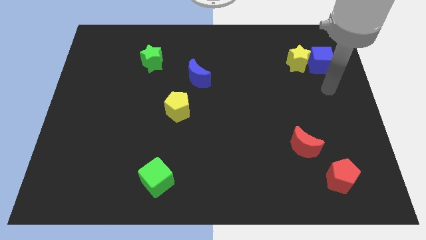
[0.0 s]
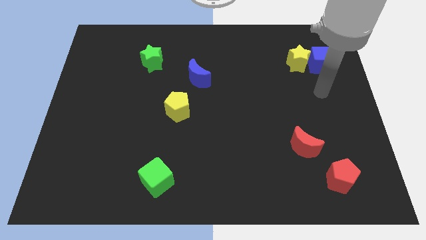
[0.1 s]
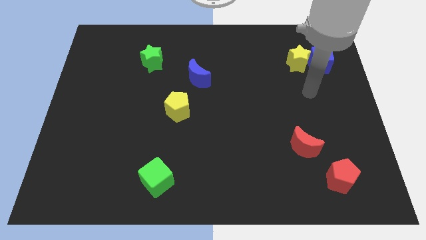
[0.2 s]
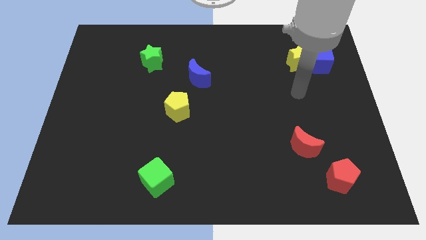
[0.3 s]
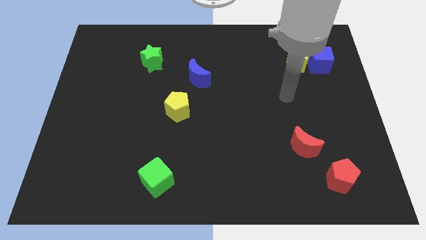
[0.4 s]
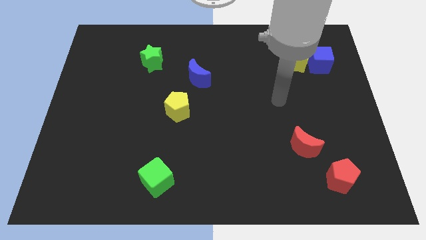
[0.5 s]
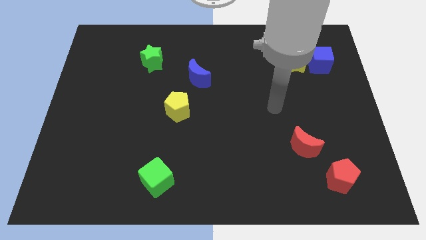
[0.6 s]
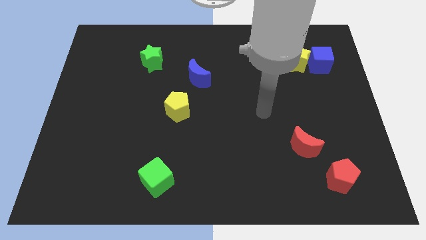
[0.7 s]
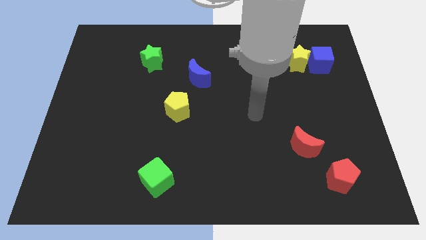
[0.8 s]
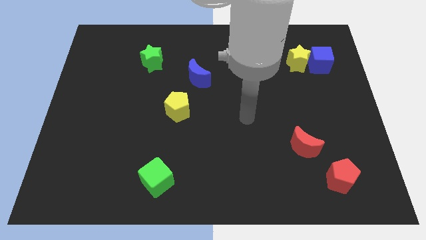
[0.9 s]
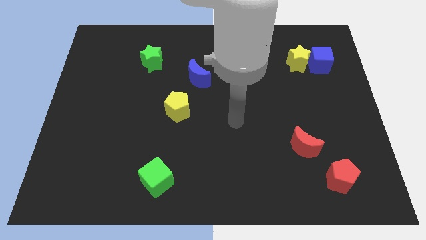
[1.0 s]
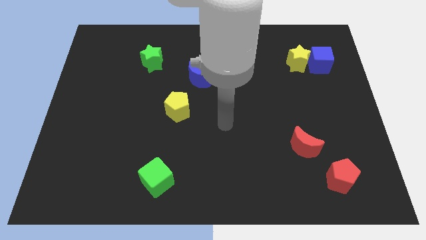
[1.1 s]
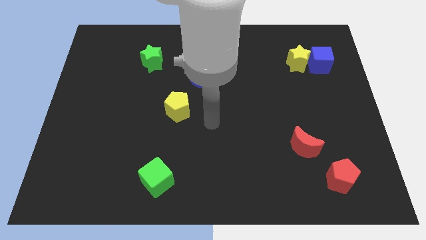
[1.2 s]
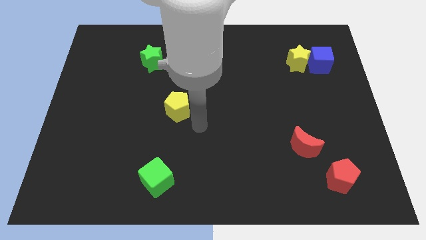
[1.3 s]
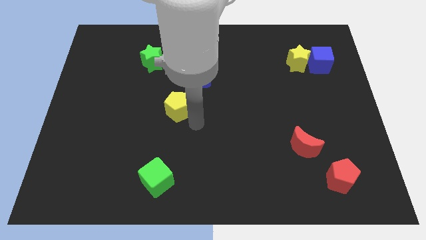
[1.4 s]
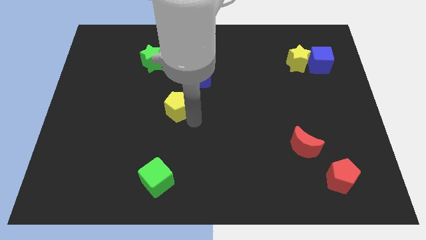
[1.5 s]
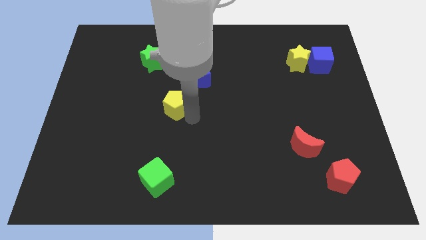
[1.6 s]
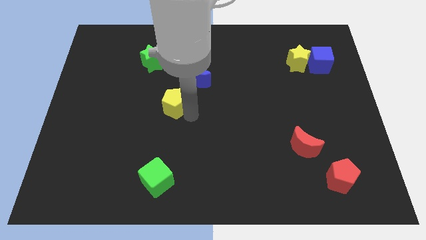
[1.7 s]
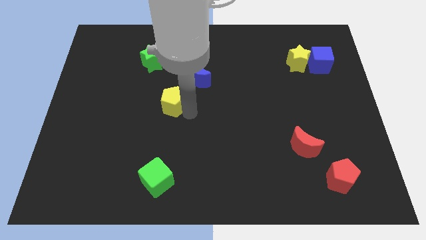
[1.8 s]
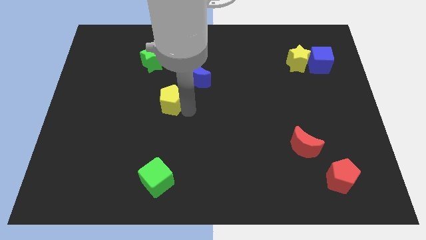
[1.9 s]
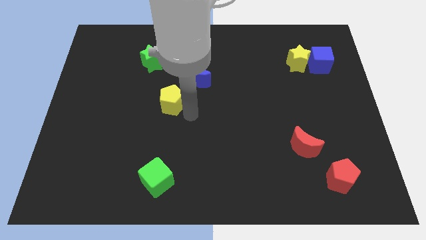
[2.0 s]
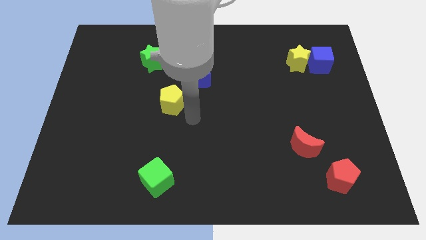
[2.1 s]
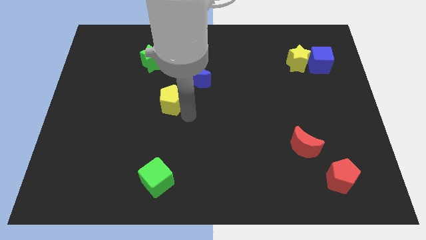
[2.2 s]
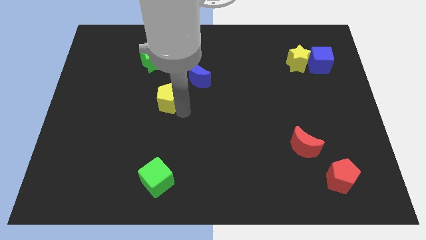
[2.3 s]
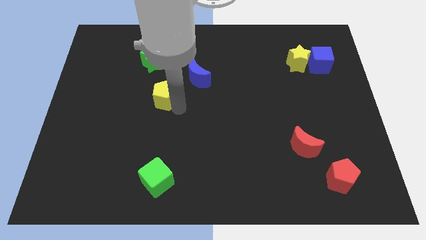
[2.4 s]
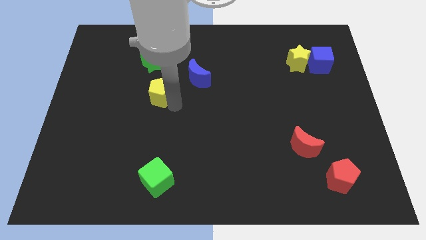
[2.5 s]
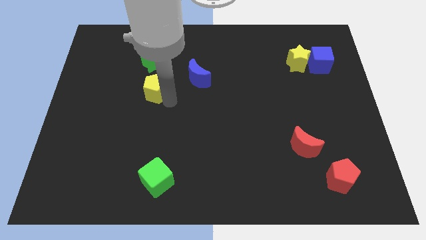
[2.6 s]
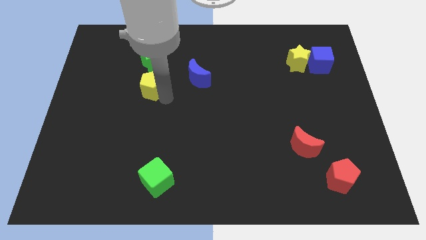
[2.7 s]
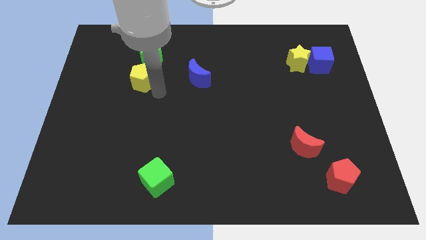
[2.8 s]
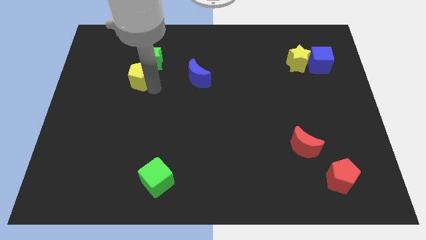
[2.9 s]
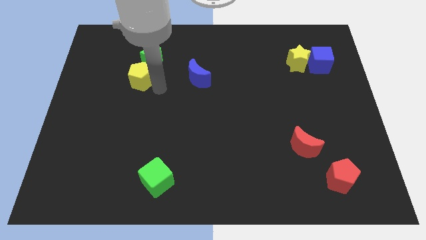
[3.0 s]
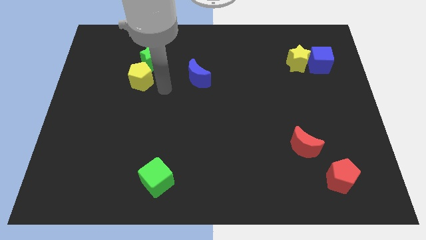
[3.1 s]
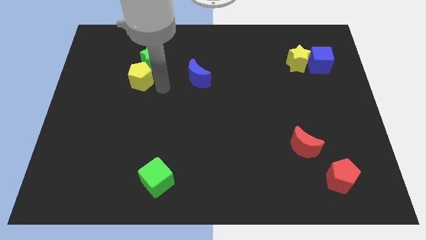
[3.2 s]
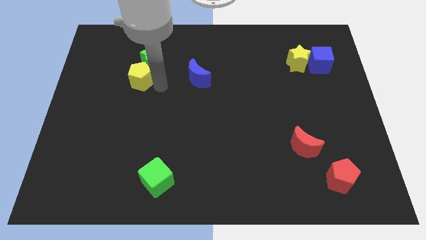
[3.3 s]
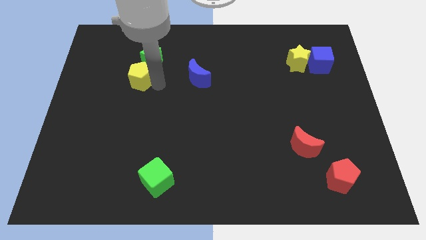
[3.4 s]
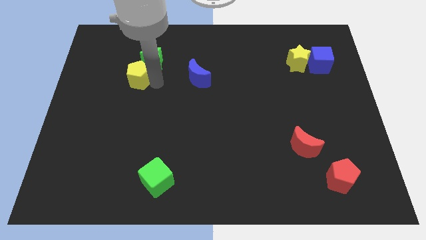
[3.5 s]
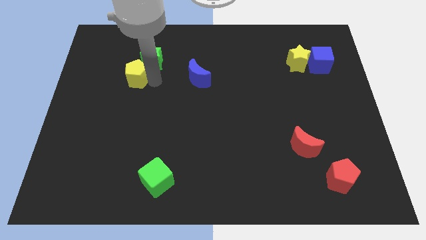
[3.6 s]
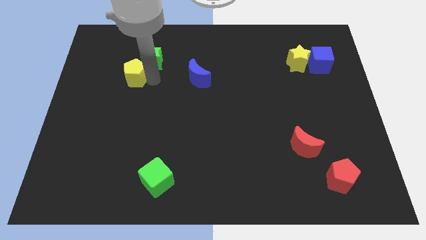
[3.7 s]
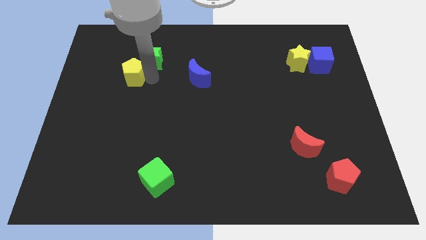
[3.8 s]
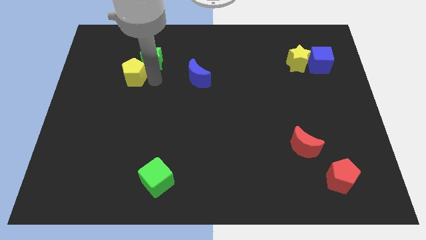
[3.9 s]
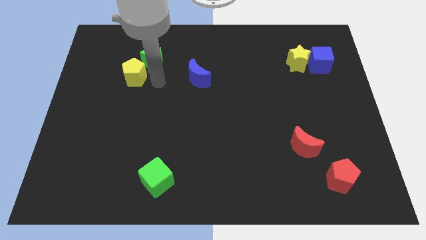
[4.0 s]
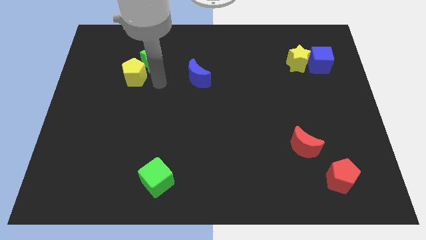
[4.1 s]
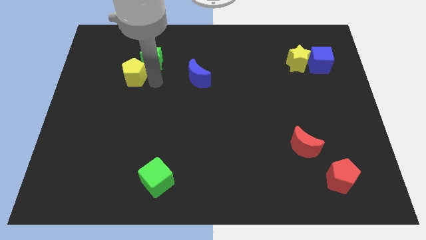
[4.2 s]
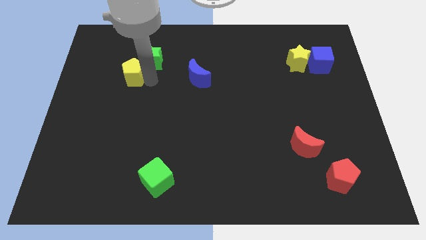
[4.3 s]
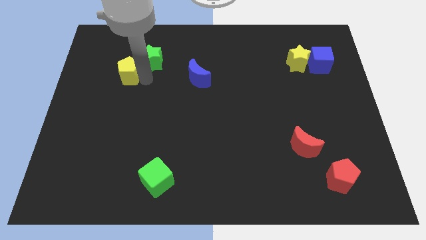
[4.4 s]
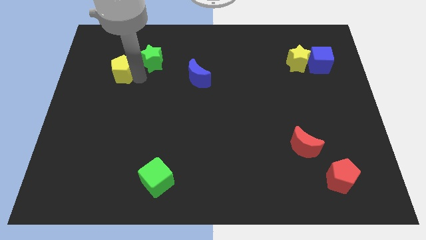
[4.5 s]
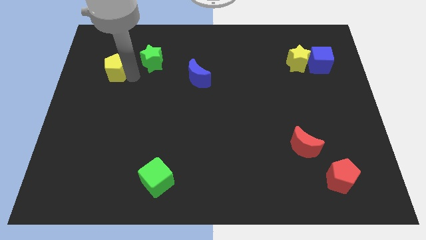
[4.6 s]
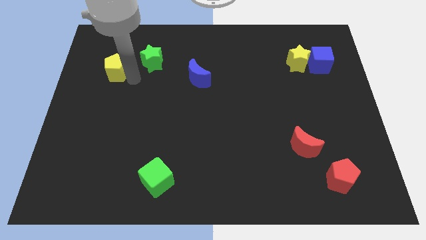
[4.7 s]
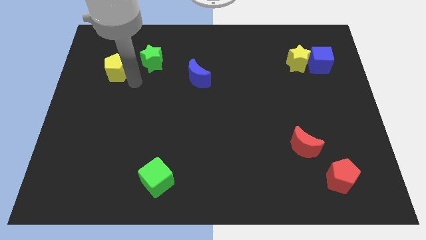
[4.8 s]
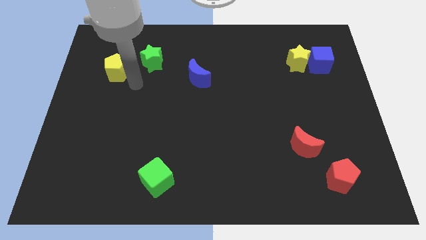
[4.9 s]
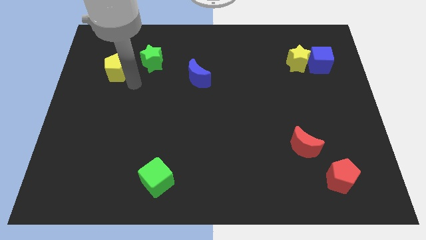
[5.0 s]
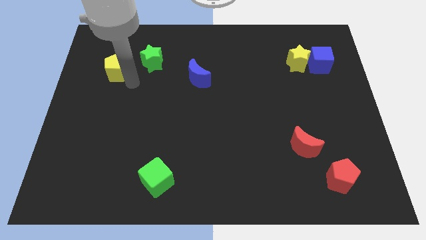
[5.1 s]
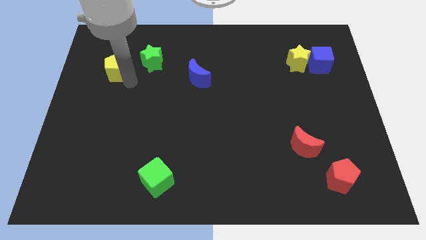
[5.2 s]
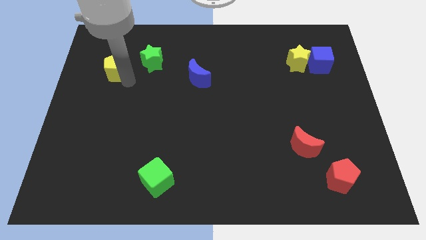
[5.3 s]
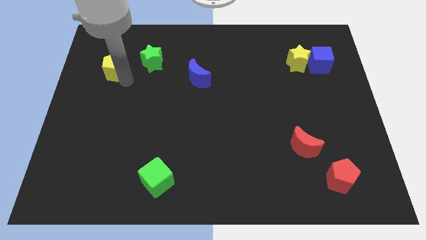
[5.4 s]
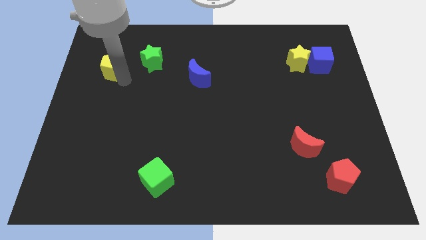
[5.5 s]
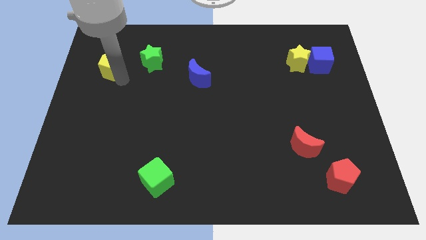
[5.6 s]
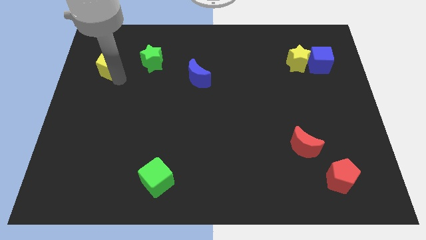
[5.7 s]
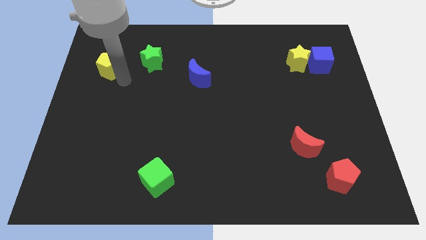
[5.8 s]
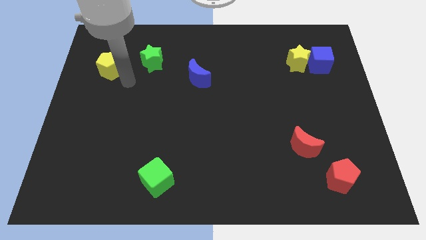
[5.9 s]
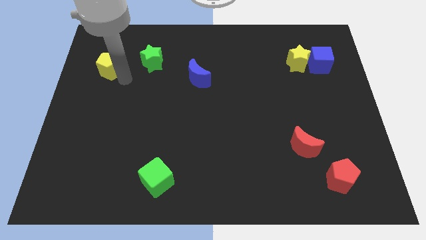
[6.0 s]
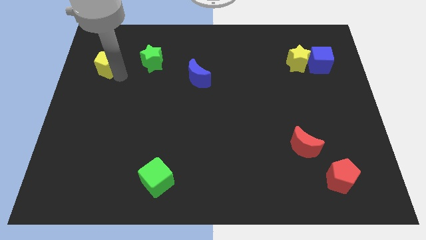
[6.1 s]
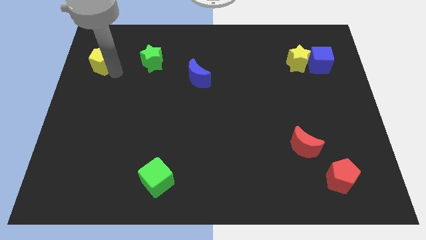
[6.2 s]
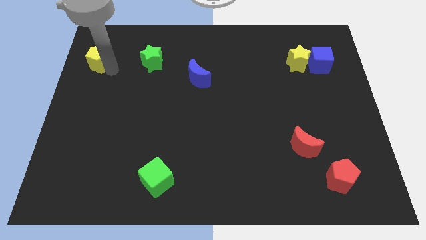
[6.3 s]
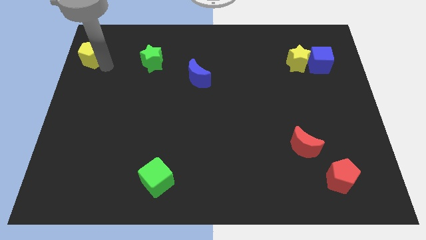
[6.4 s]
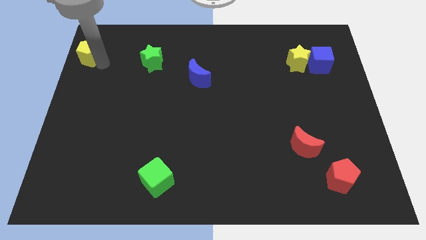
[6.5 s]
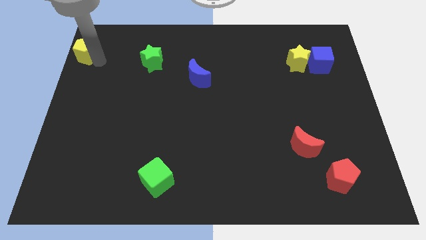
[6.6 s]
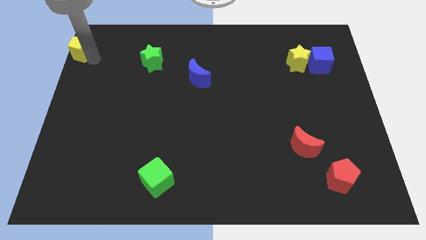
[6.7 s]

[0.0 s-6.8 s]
move the yellow pentagon to the top left of the board

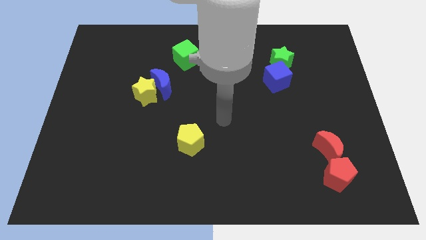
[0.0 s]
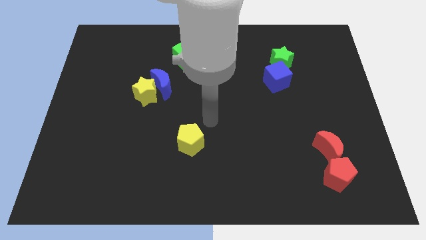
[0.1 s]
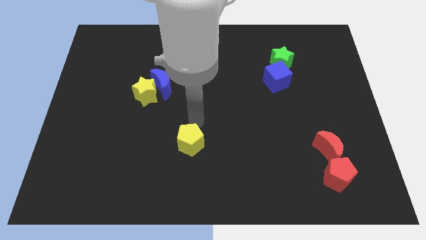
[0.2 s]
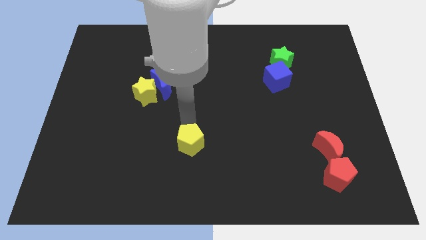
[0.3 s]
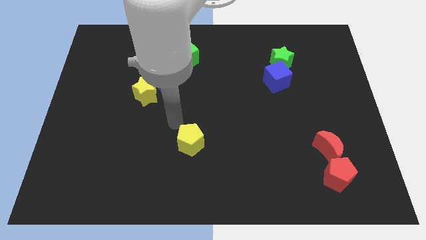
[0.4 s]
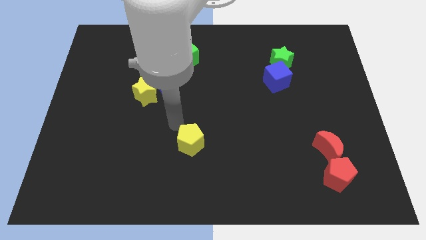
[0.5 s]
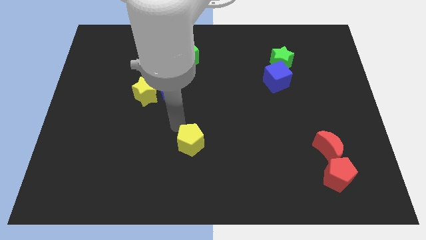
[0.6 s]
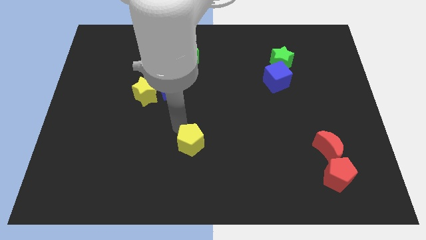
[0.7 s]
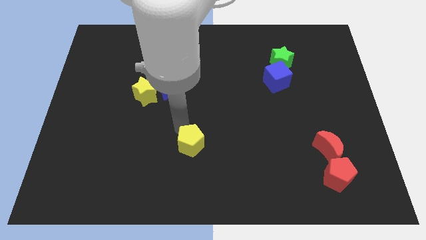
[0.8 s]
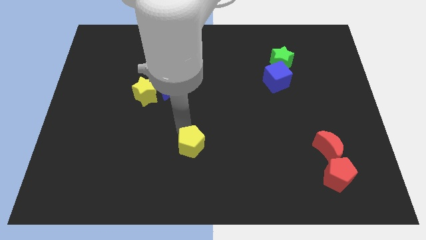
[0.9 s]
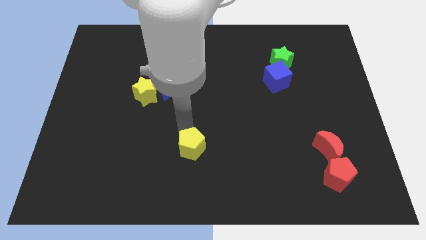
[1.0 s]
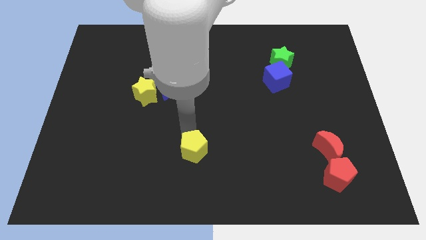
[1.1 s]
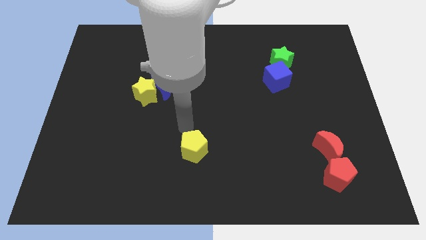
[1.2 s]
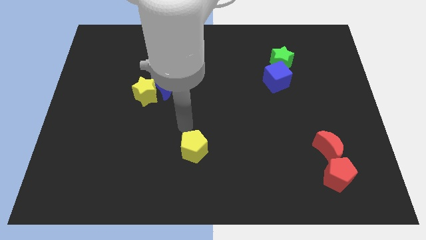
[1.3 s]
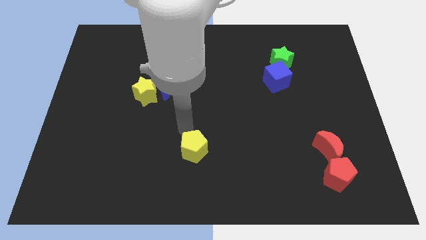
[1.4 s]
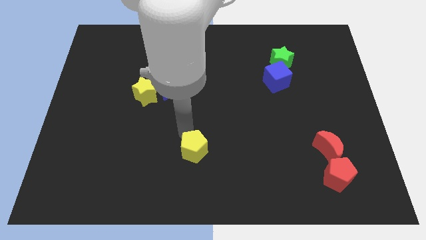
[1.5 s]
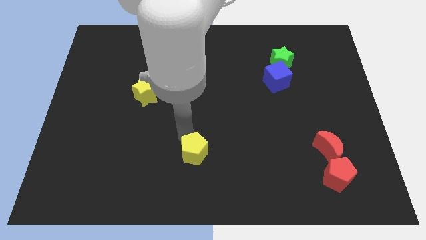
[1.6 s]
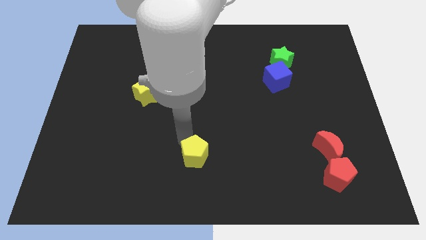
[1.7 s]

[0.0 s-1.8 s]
put the yellow pentagon to the bottom side
